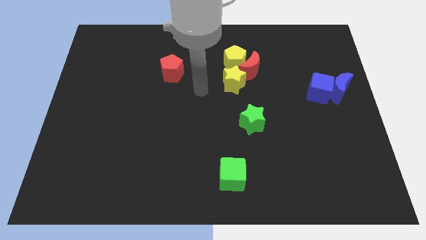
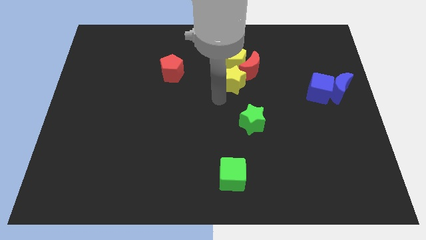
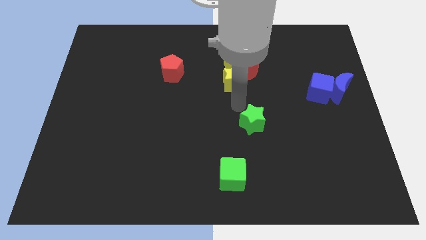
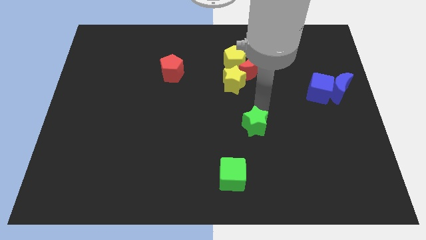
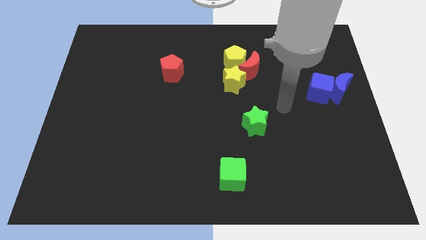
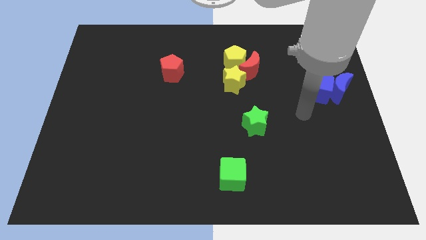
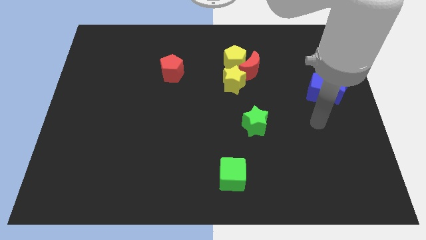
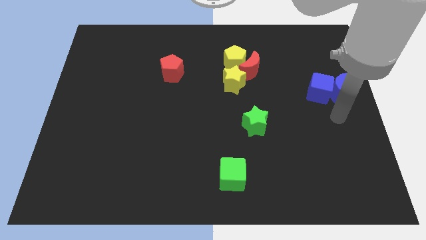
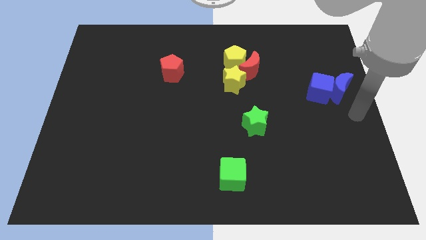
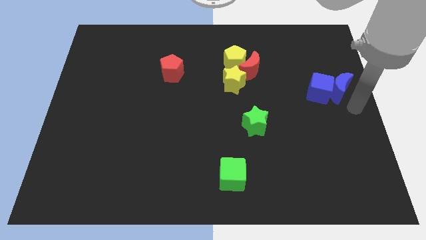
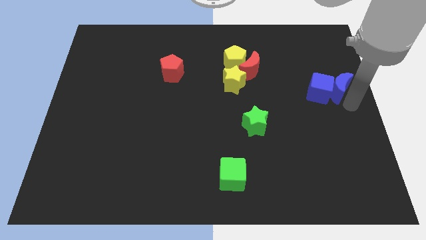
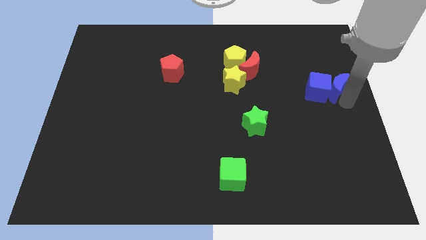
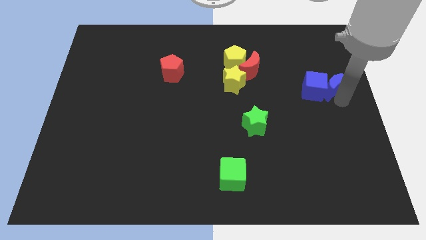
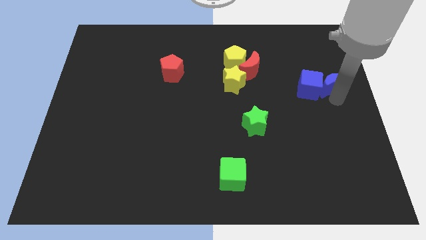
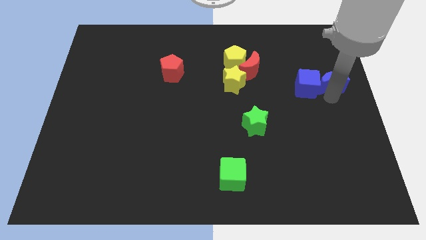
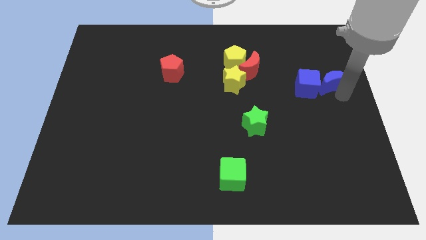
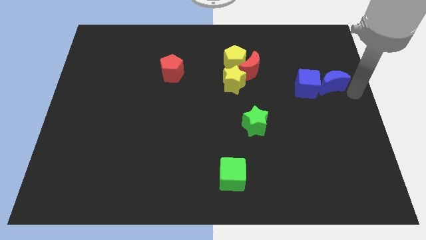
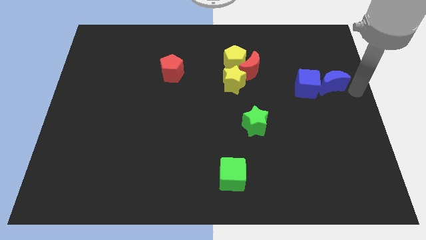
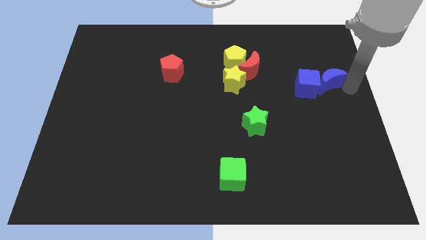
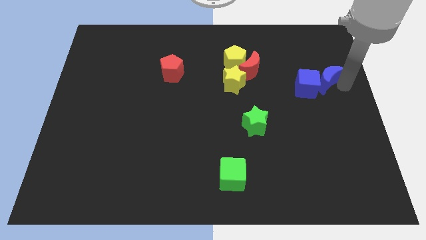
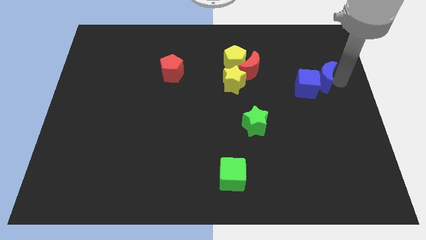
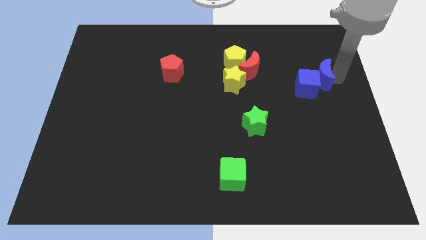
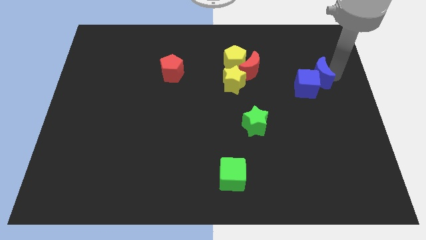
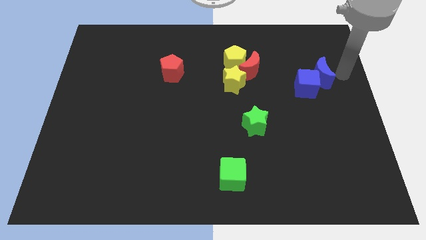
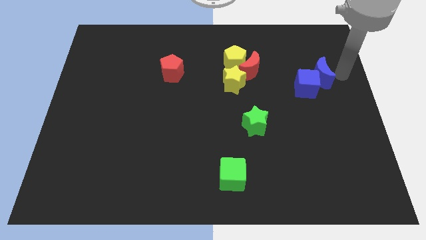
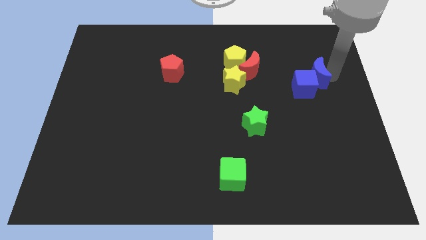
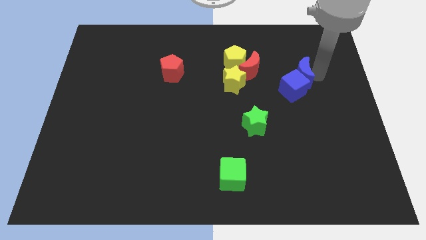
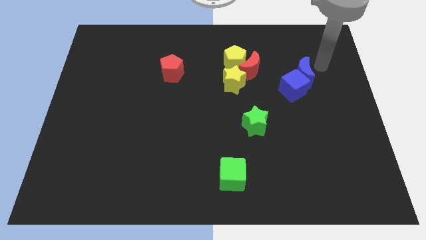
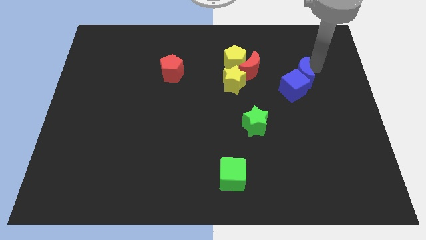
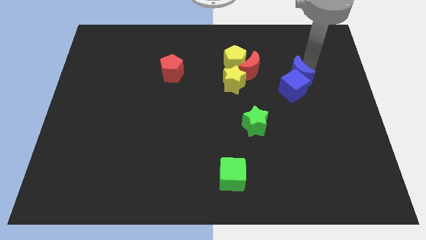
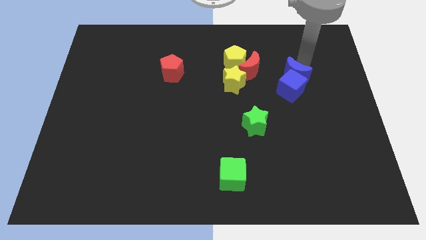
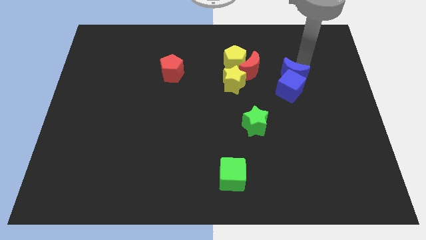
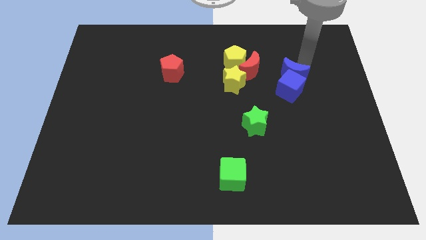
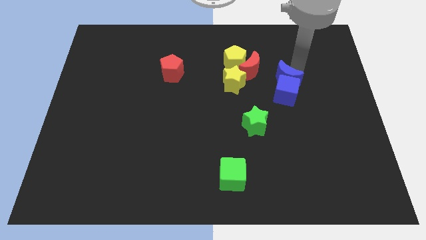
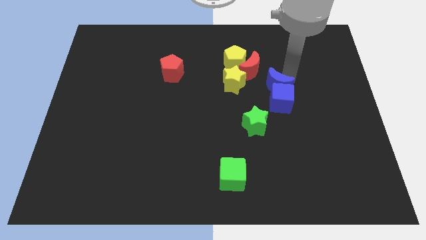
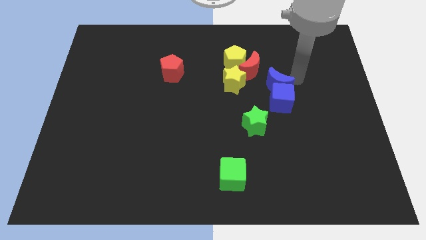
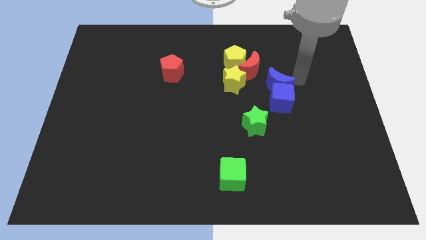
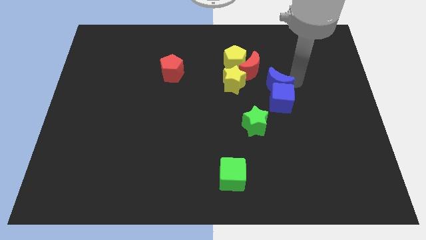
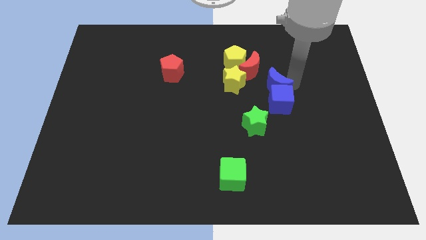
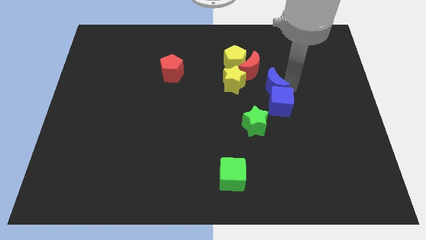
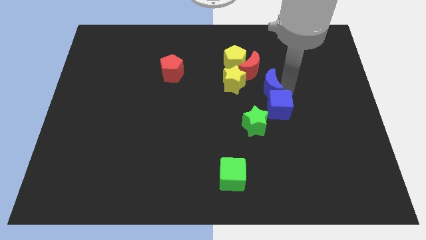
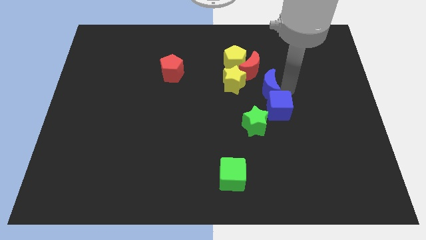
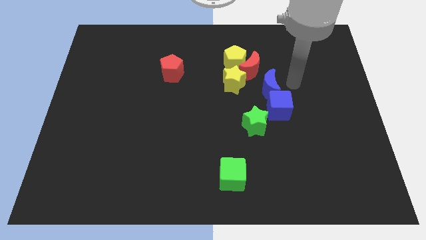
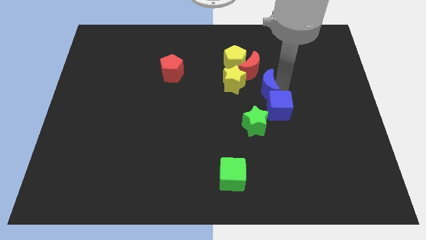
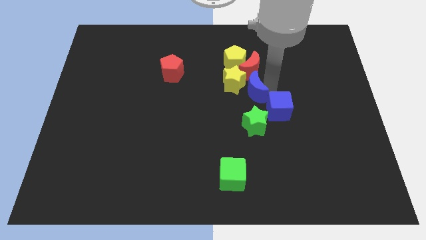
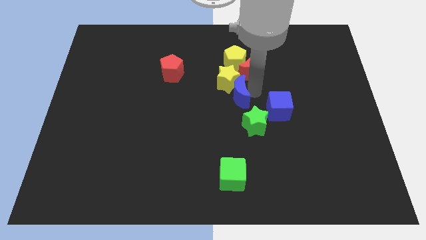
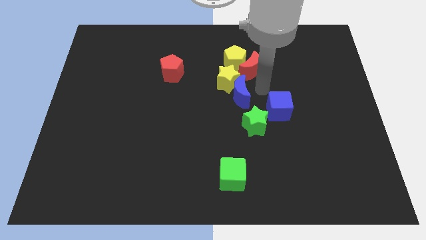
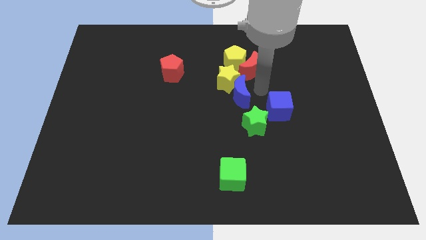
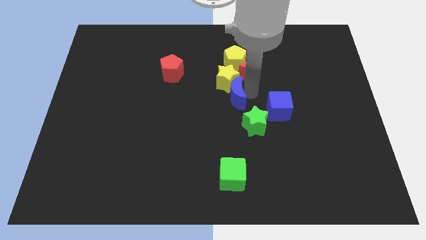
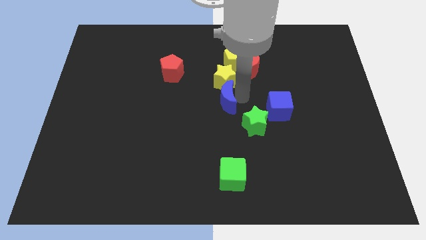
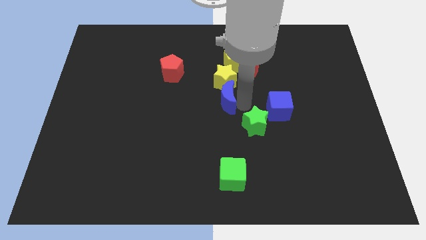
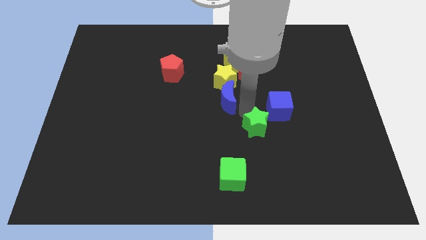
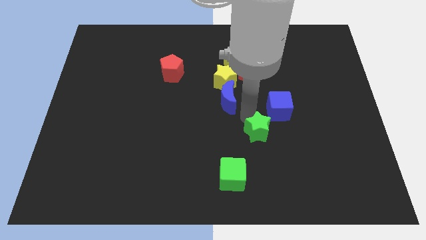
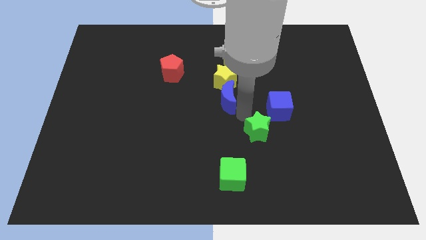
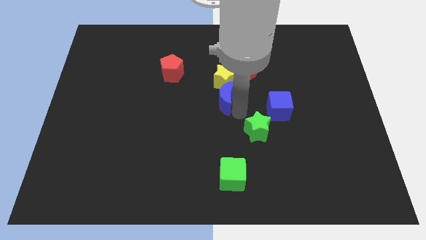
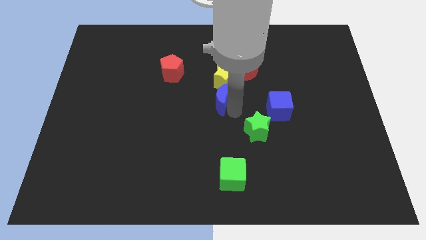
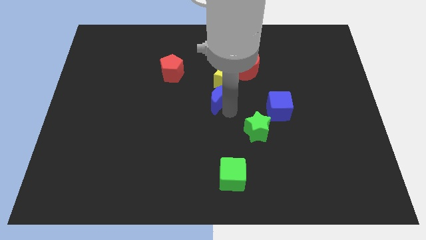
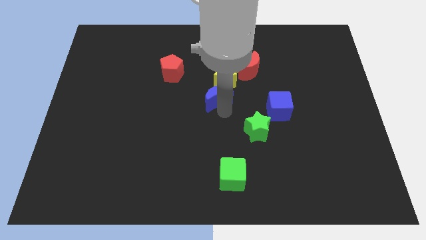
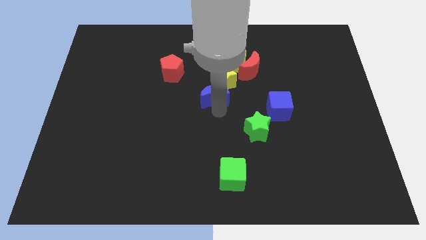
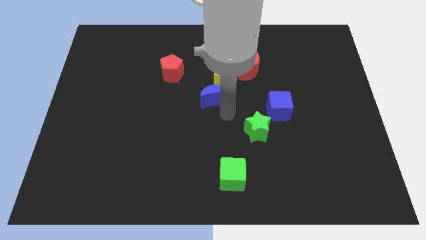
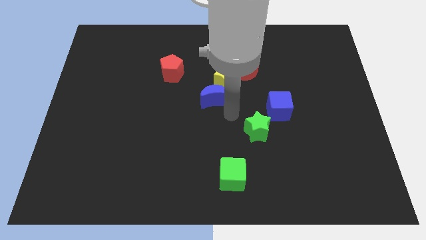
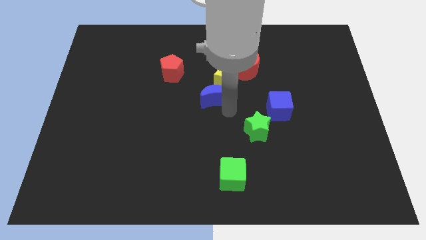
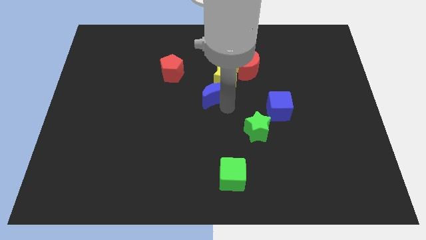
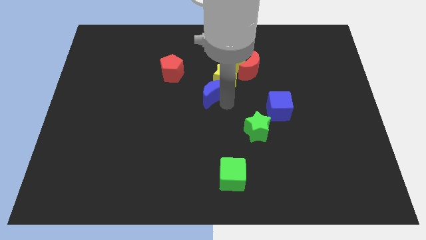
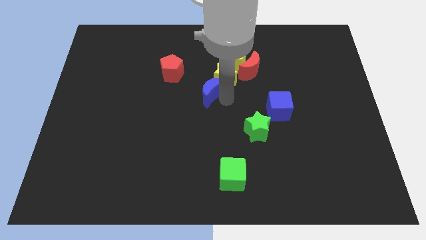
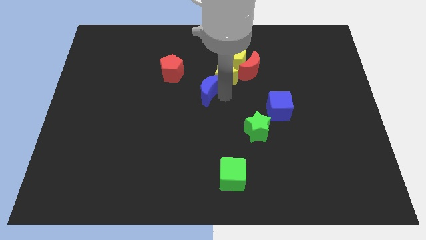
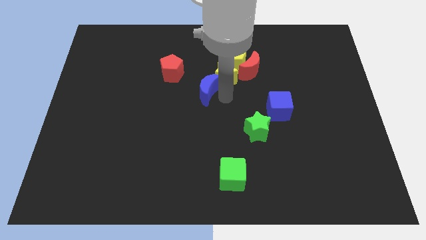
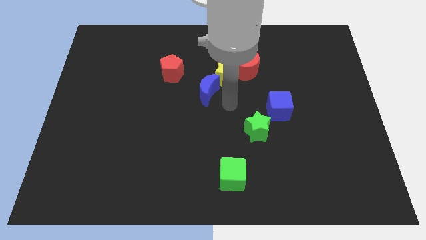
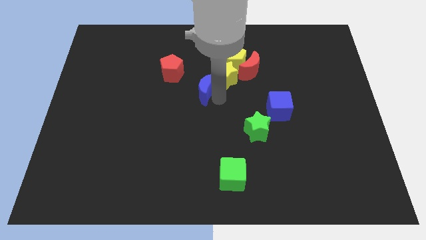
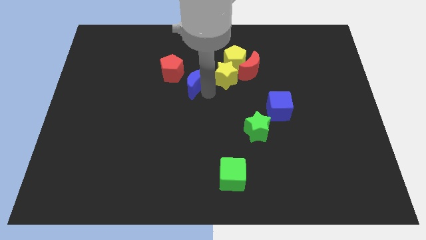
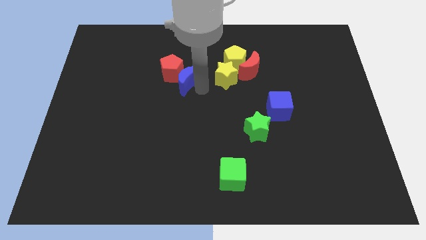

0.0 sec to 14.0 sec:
push the blue moon next to the red pentagon

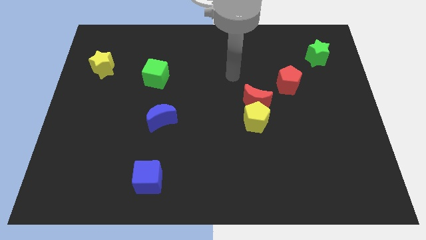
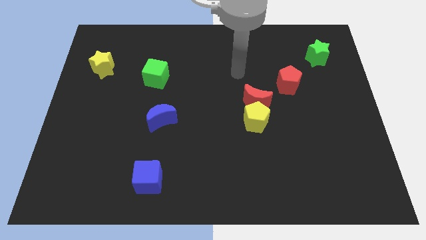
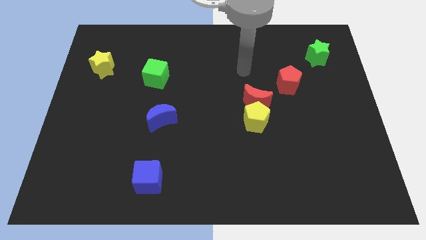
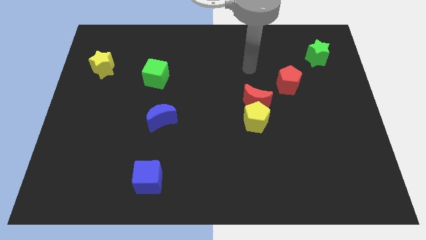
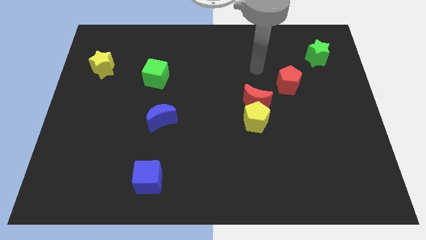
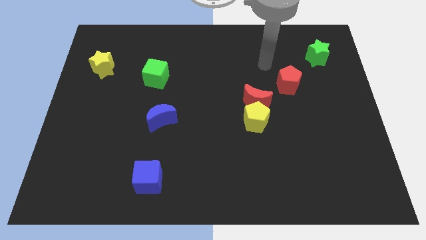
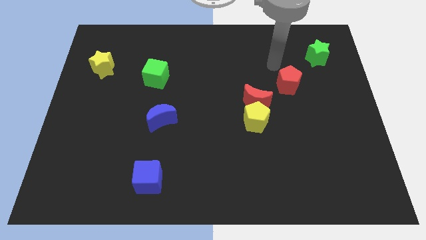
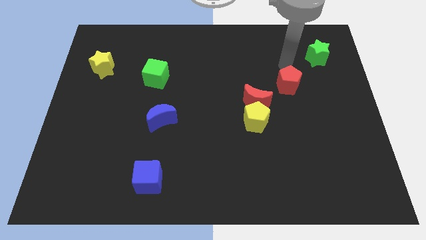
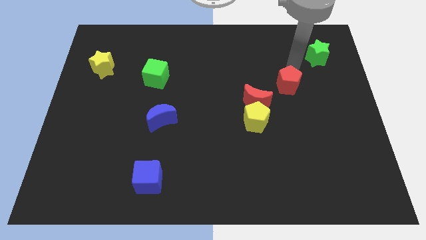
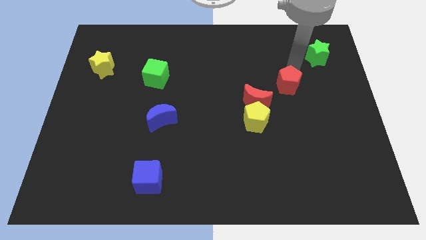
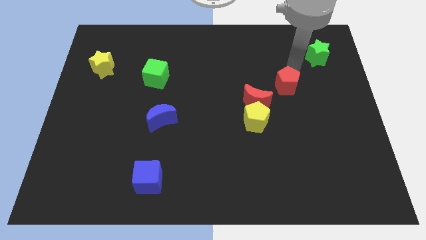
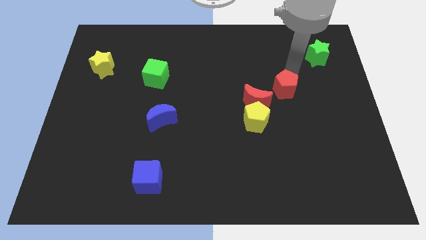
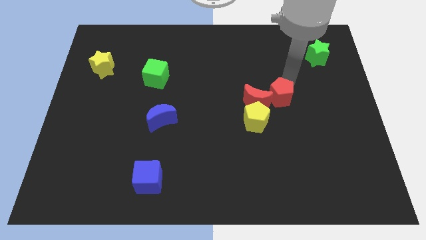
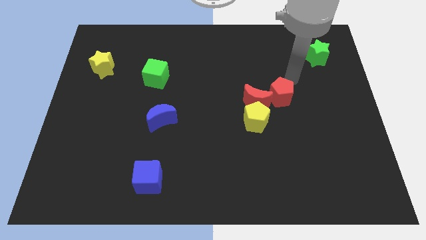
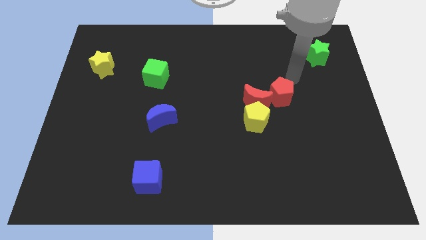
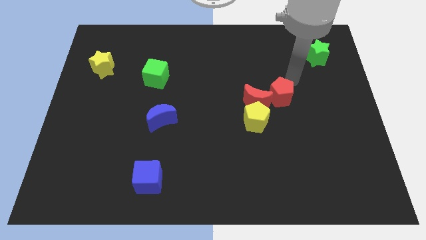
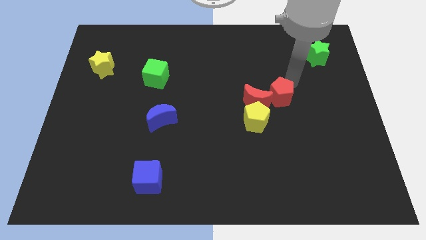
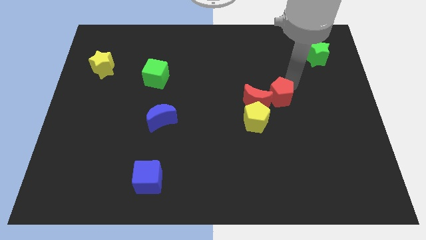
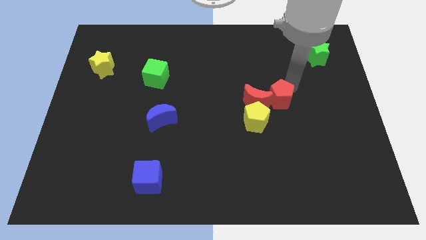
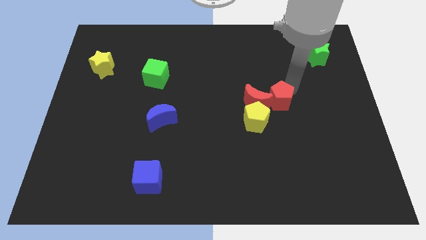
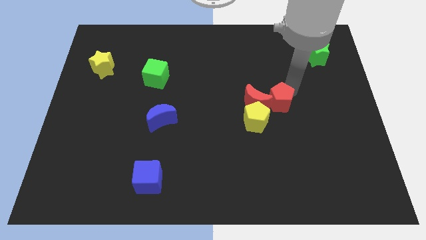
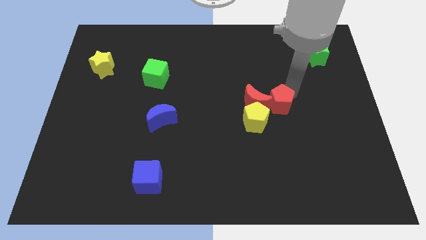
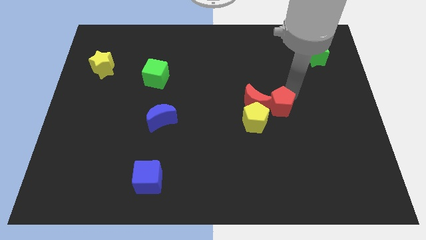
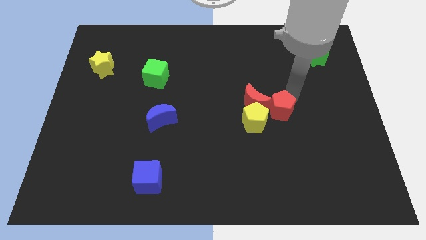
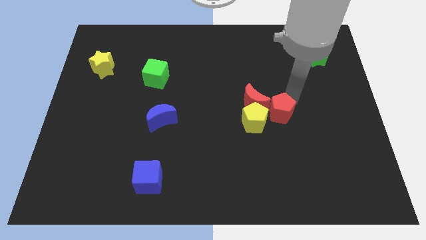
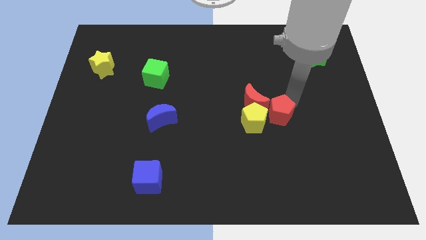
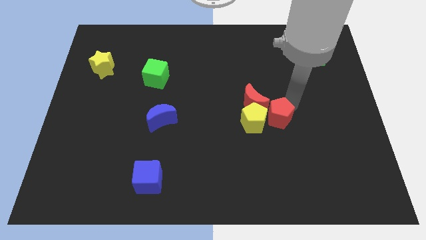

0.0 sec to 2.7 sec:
slide the red pentagon towards the yellow pentagon
